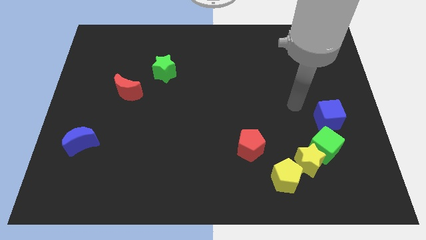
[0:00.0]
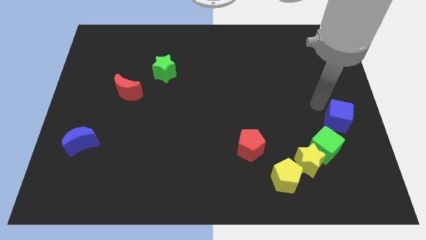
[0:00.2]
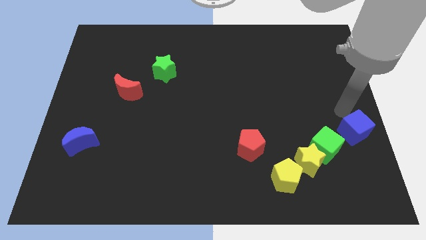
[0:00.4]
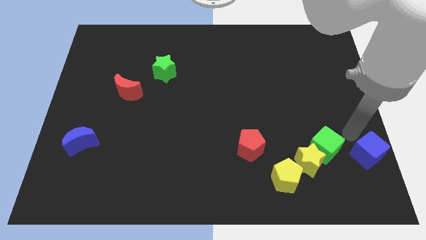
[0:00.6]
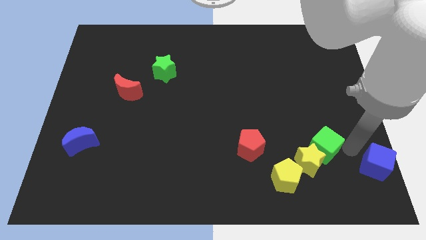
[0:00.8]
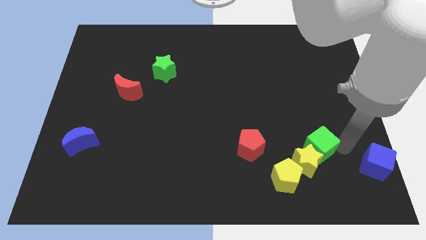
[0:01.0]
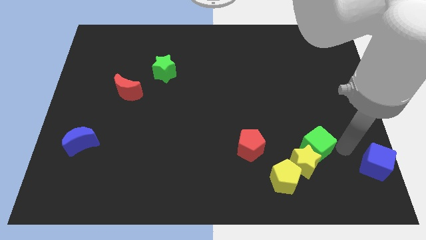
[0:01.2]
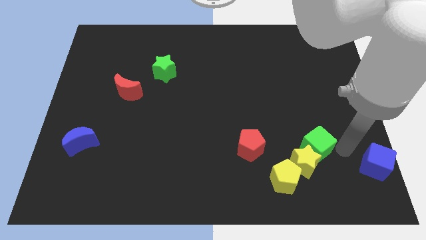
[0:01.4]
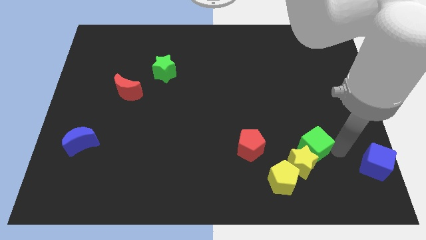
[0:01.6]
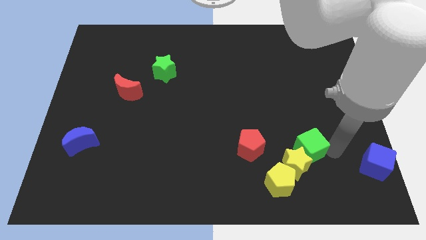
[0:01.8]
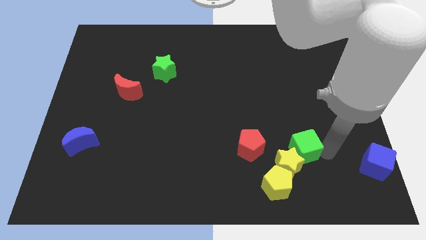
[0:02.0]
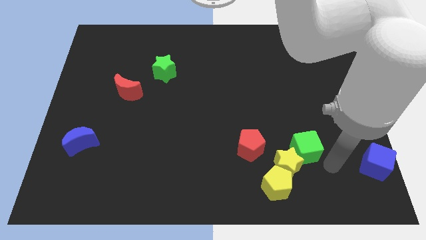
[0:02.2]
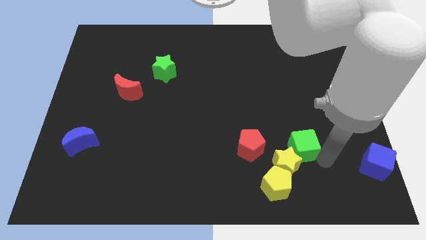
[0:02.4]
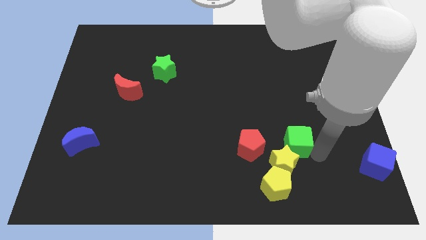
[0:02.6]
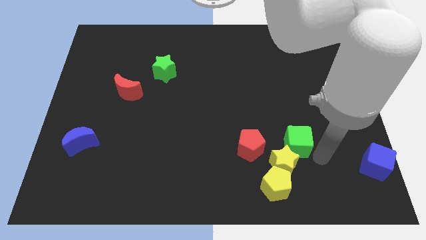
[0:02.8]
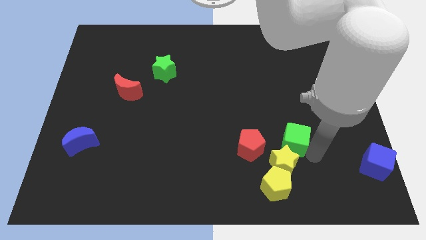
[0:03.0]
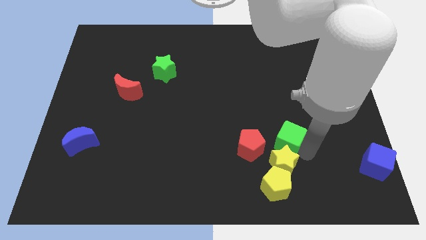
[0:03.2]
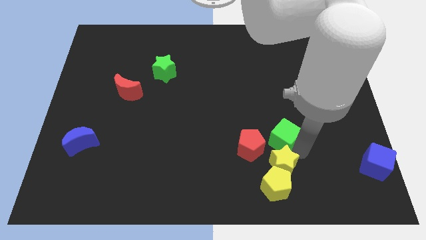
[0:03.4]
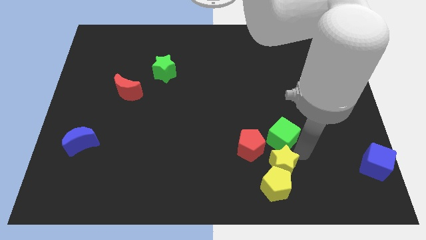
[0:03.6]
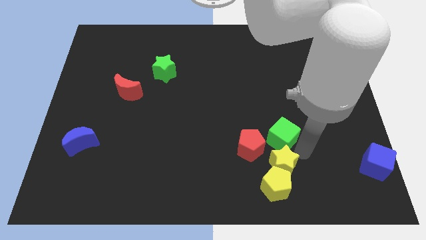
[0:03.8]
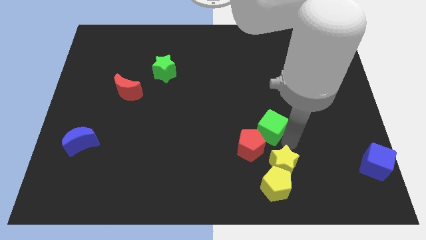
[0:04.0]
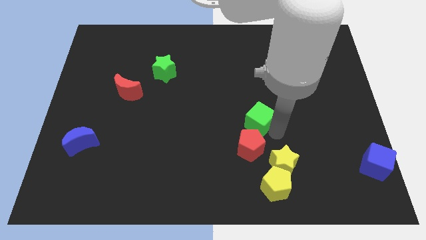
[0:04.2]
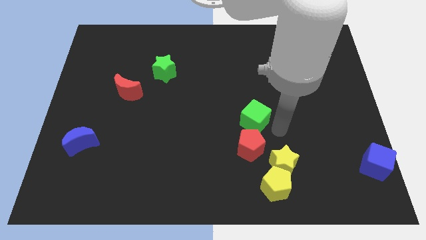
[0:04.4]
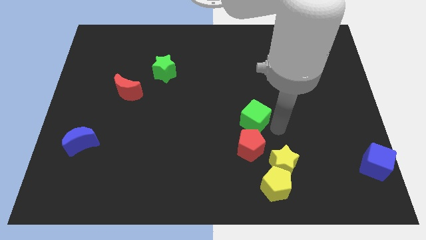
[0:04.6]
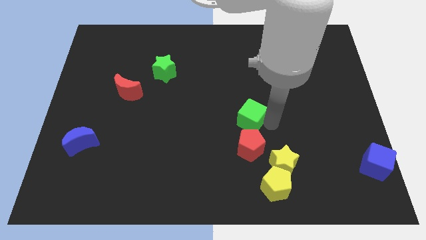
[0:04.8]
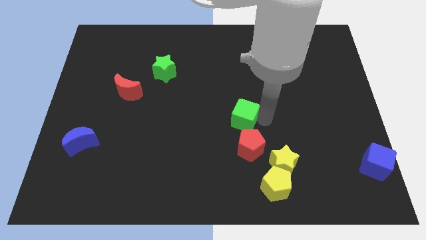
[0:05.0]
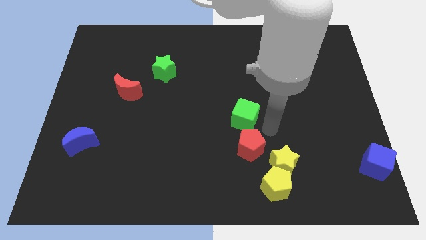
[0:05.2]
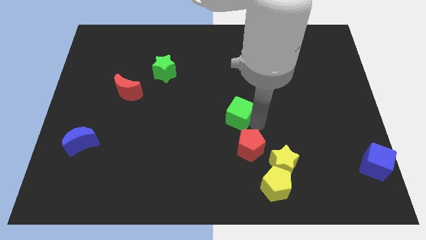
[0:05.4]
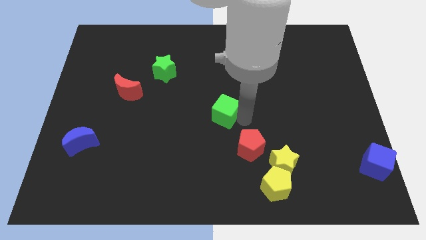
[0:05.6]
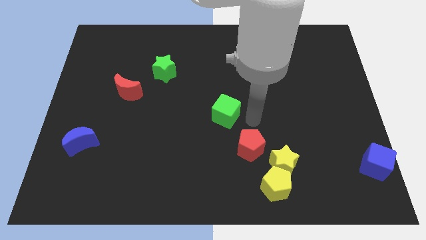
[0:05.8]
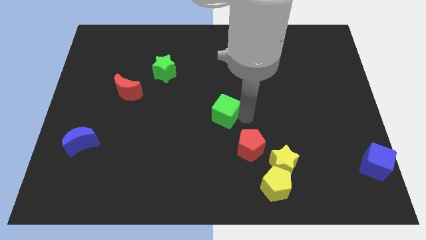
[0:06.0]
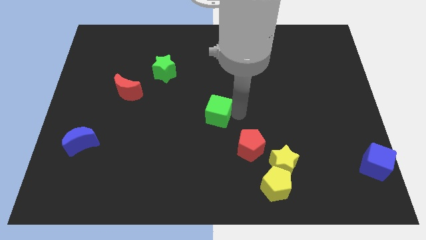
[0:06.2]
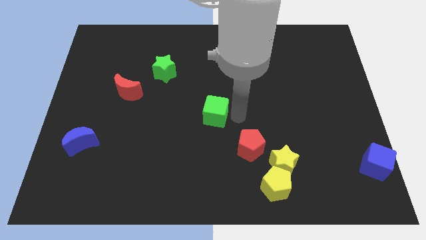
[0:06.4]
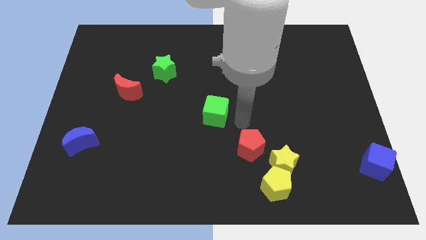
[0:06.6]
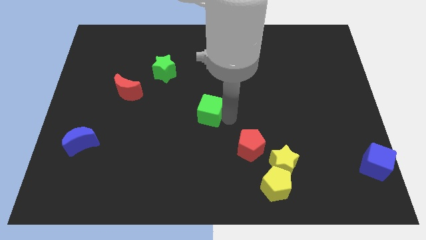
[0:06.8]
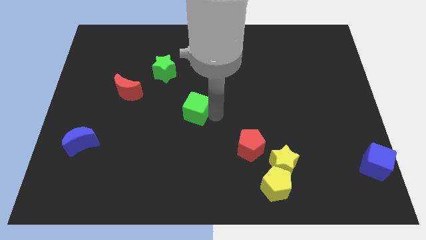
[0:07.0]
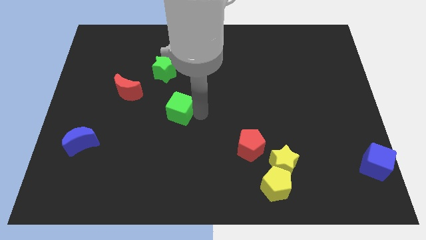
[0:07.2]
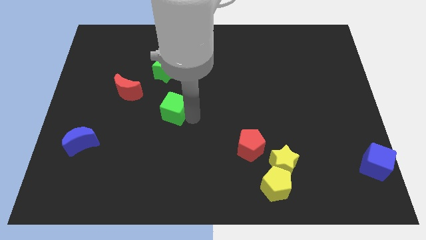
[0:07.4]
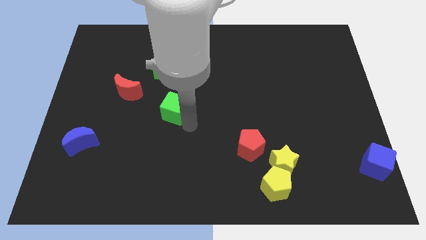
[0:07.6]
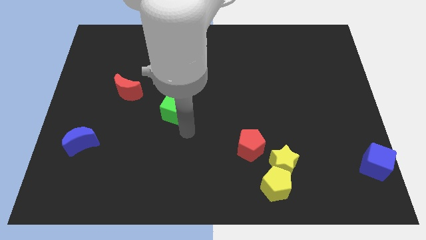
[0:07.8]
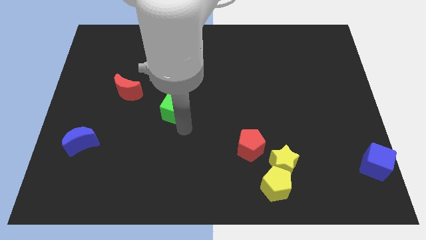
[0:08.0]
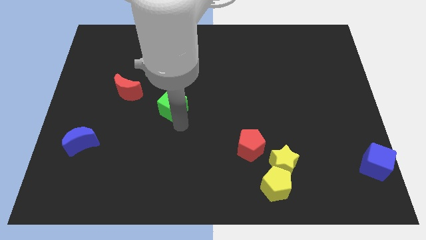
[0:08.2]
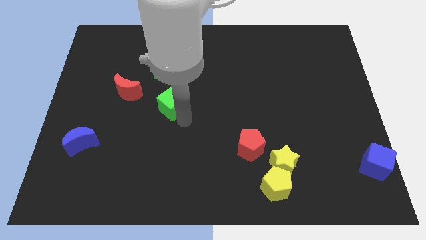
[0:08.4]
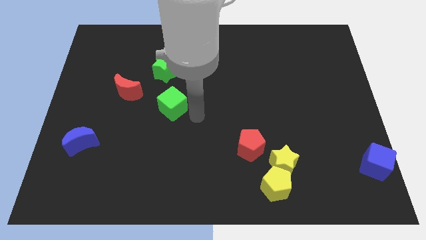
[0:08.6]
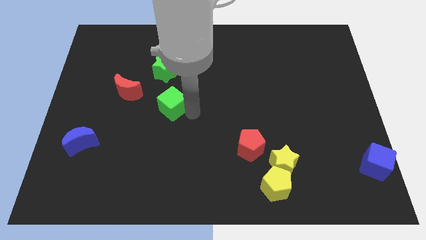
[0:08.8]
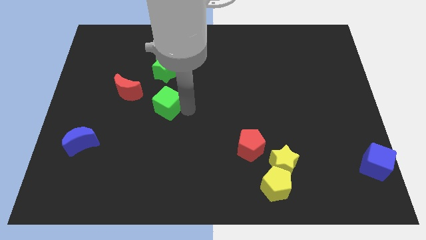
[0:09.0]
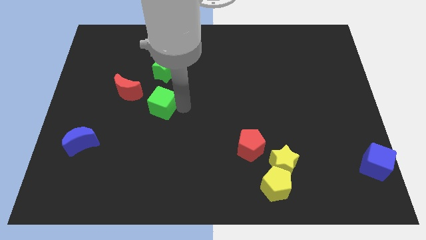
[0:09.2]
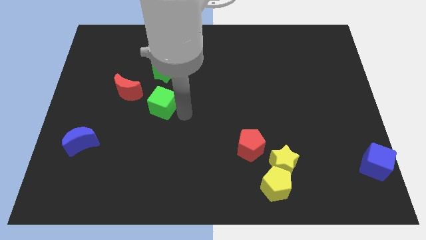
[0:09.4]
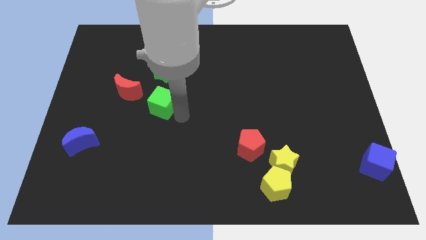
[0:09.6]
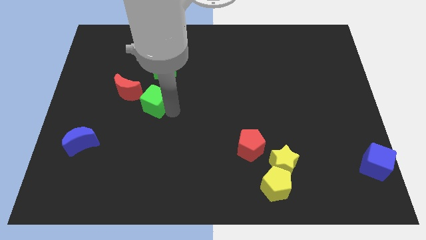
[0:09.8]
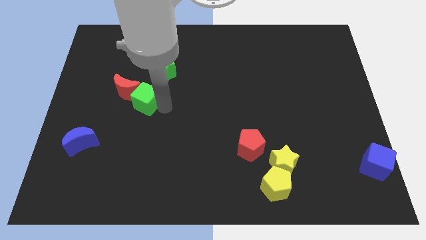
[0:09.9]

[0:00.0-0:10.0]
push the green cube next to the red moon

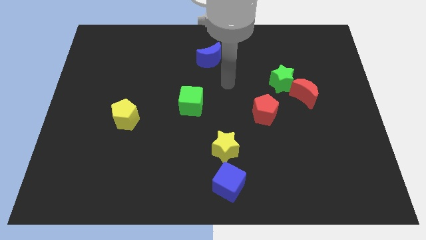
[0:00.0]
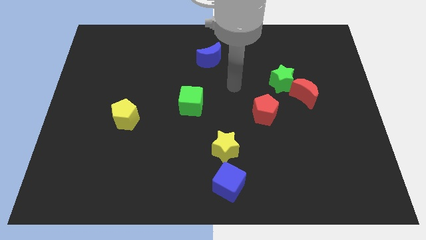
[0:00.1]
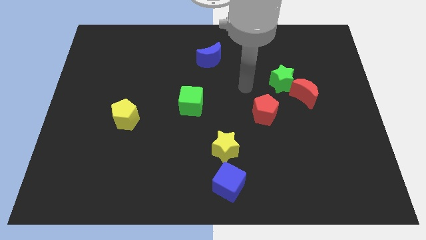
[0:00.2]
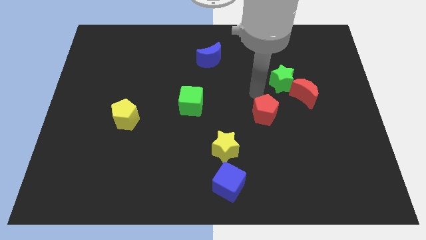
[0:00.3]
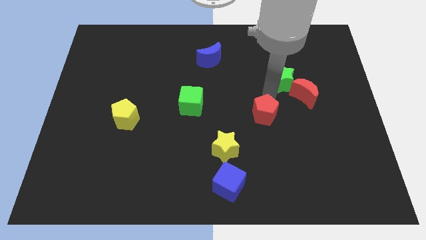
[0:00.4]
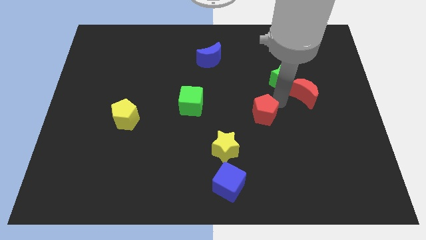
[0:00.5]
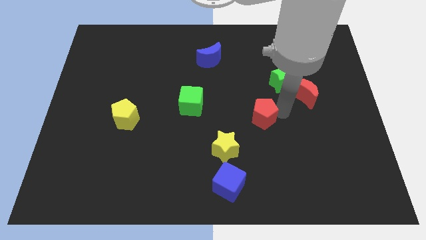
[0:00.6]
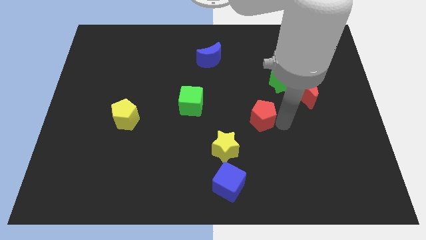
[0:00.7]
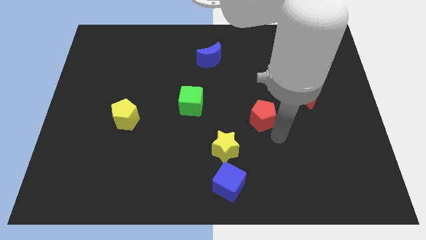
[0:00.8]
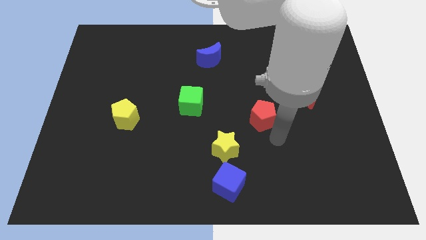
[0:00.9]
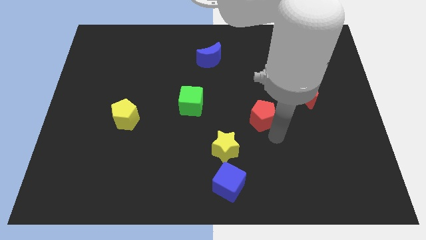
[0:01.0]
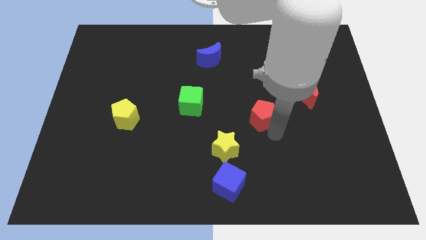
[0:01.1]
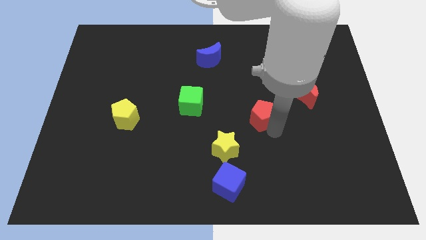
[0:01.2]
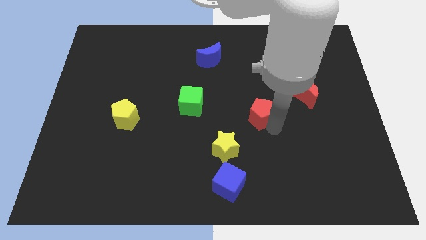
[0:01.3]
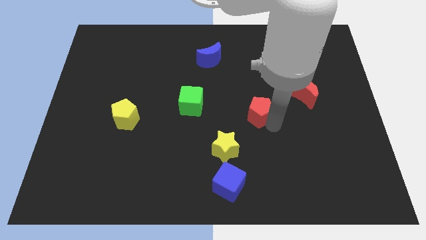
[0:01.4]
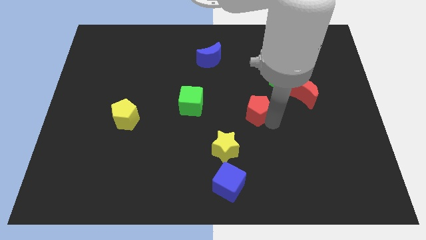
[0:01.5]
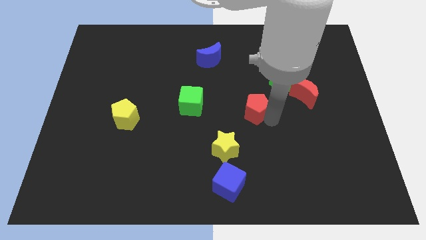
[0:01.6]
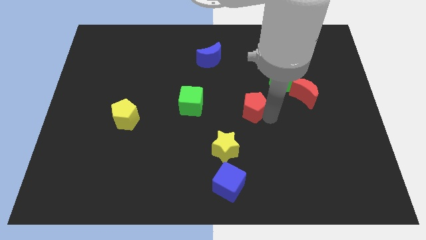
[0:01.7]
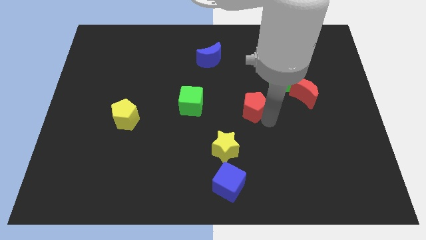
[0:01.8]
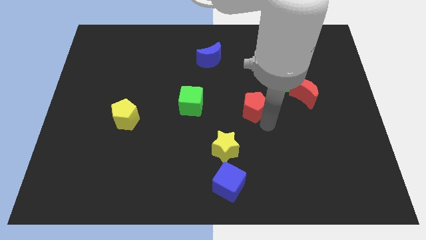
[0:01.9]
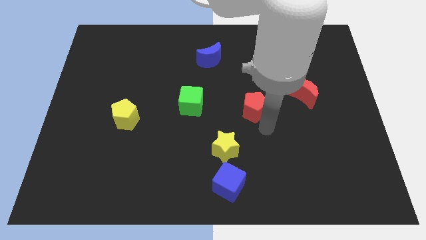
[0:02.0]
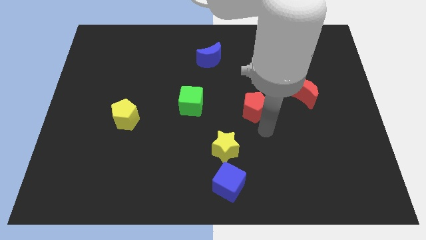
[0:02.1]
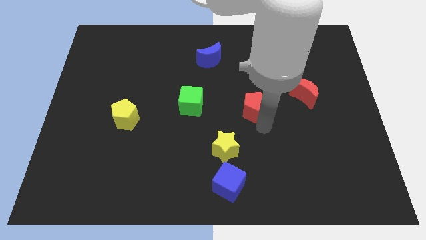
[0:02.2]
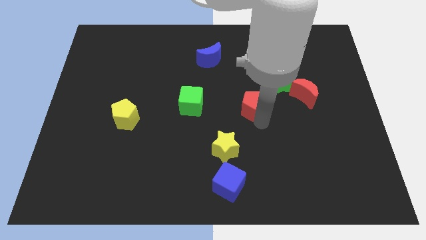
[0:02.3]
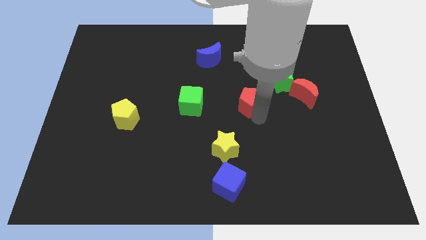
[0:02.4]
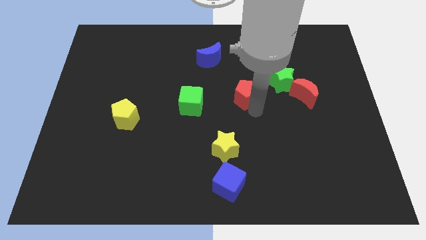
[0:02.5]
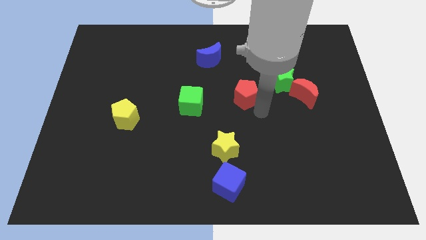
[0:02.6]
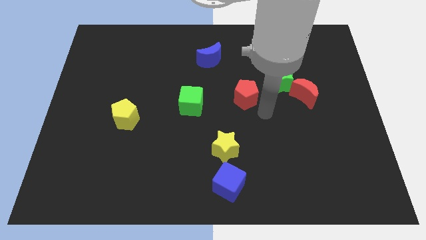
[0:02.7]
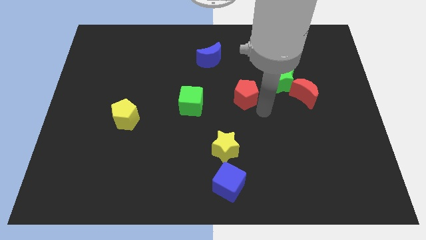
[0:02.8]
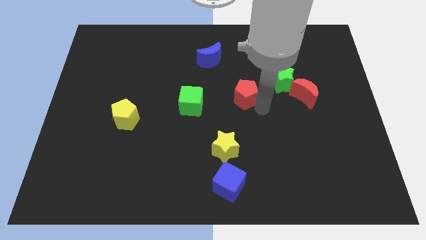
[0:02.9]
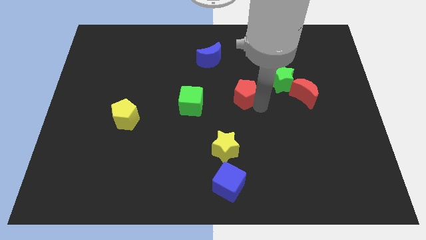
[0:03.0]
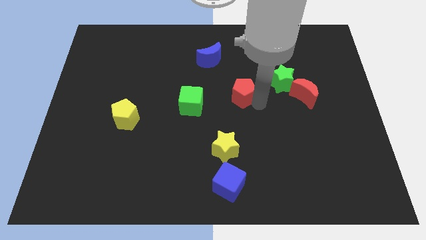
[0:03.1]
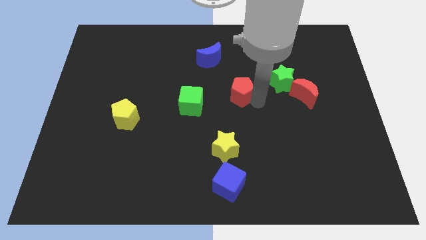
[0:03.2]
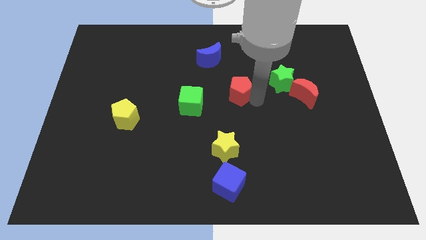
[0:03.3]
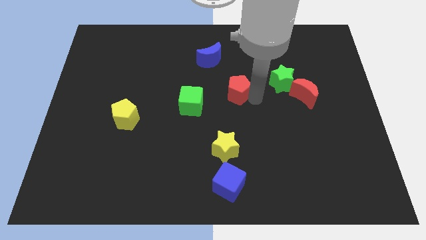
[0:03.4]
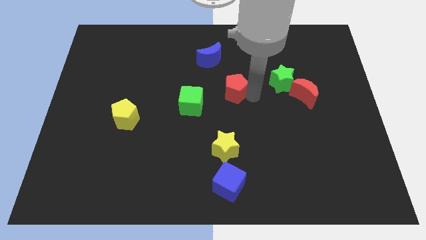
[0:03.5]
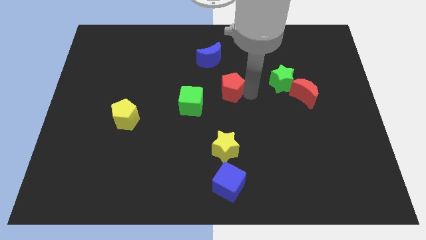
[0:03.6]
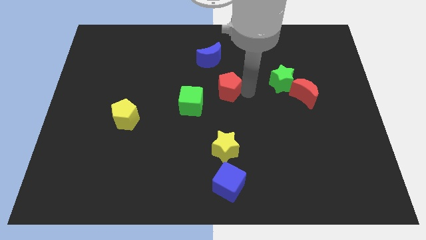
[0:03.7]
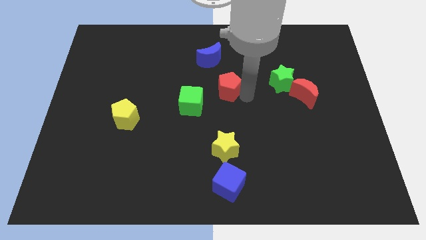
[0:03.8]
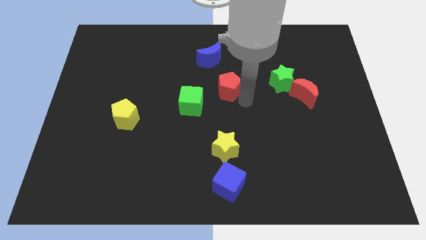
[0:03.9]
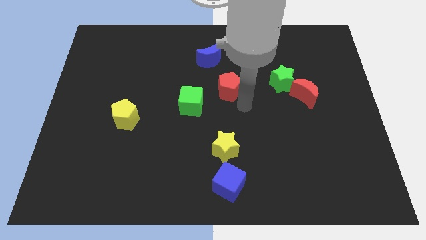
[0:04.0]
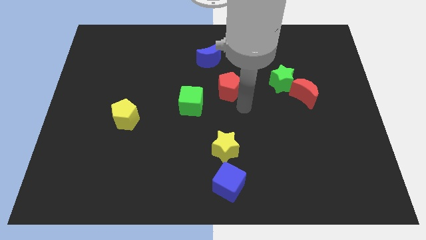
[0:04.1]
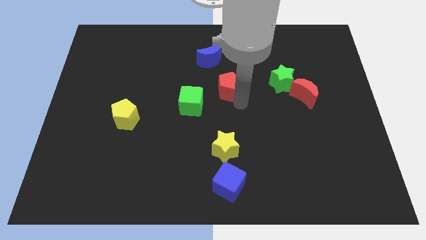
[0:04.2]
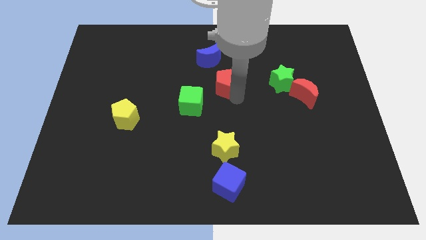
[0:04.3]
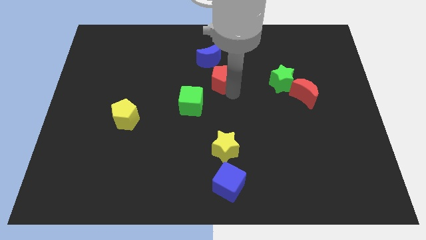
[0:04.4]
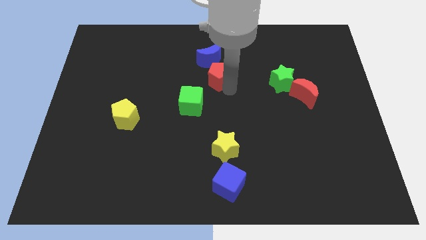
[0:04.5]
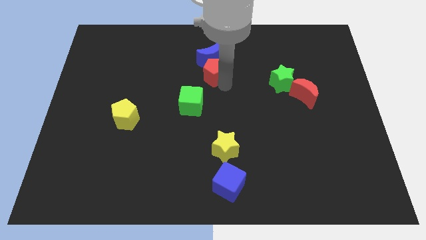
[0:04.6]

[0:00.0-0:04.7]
move the red pentagon towards the blue moon
